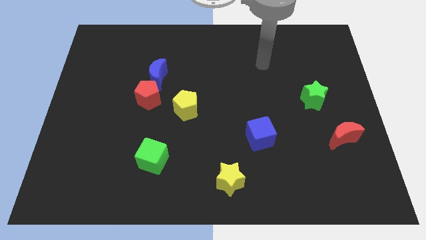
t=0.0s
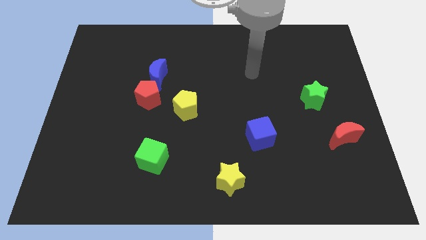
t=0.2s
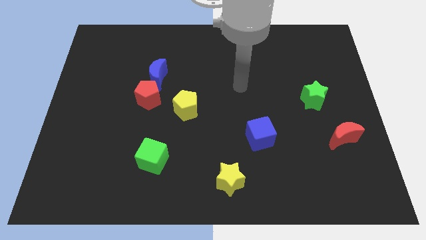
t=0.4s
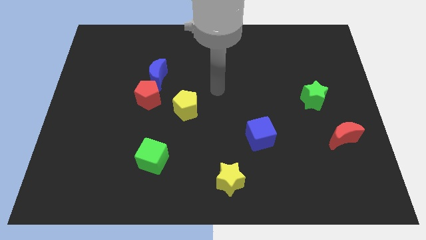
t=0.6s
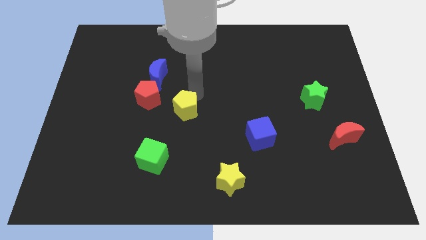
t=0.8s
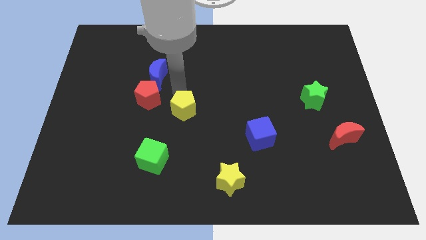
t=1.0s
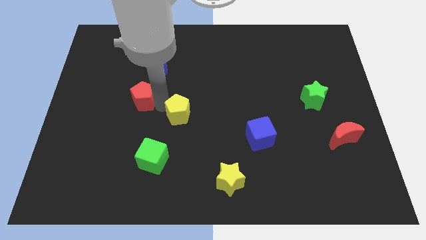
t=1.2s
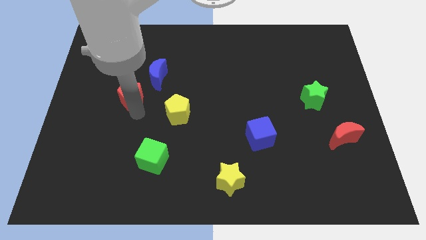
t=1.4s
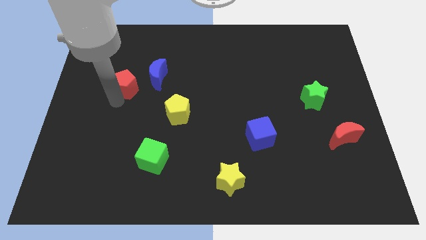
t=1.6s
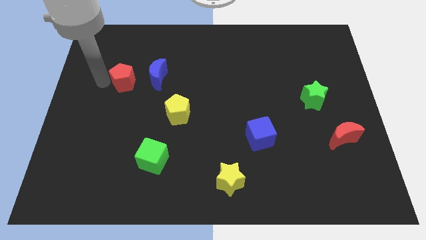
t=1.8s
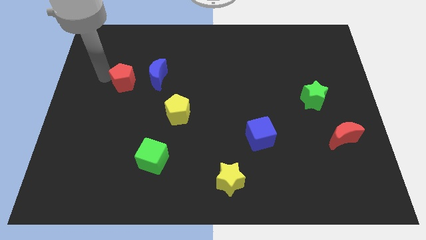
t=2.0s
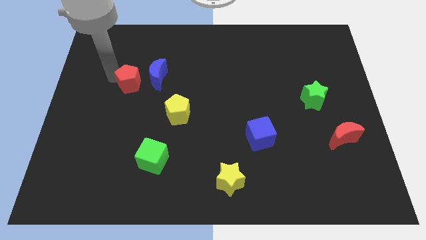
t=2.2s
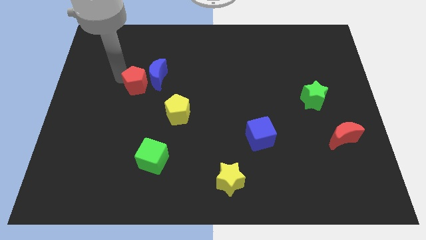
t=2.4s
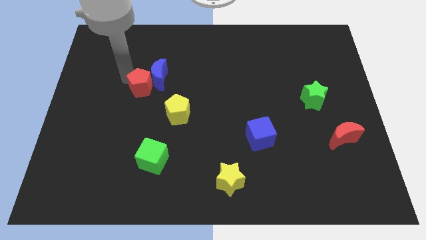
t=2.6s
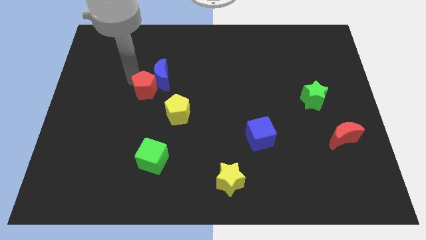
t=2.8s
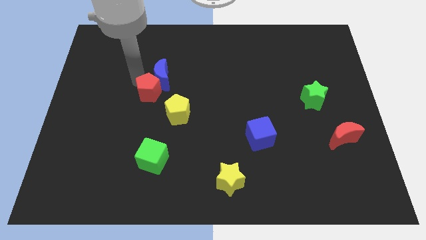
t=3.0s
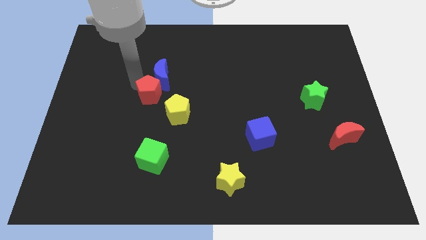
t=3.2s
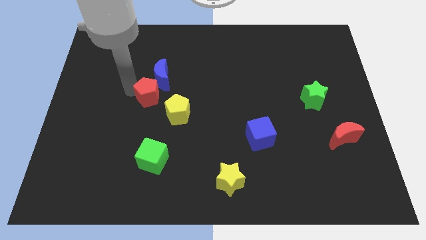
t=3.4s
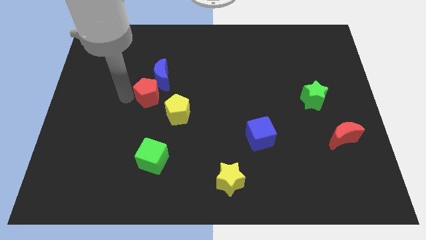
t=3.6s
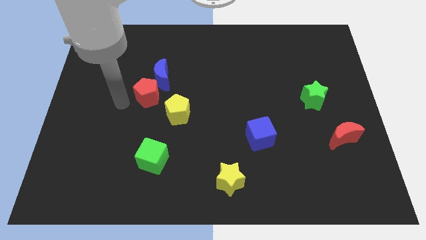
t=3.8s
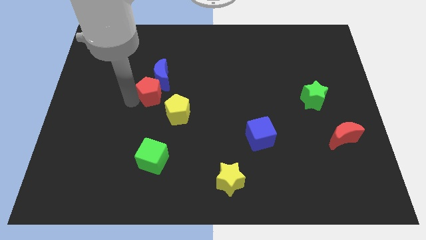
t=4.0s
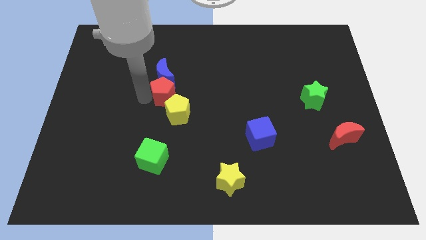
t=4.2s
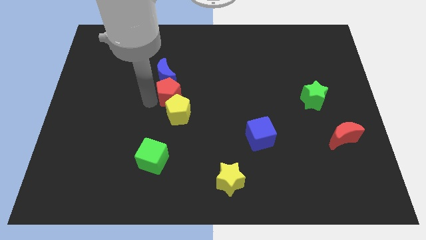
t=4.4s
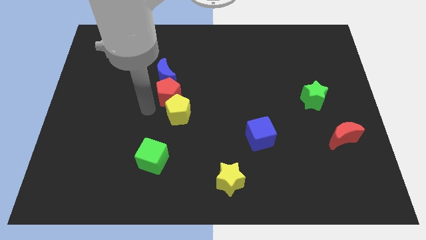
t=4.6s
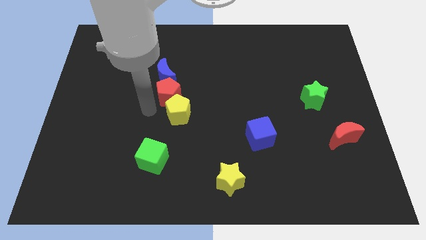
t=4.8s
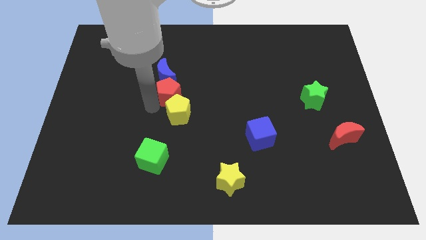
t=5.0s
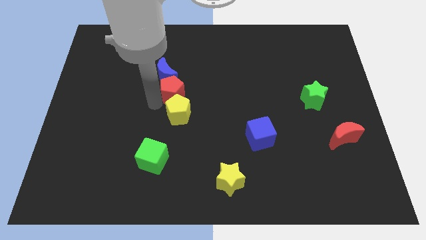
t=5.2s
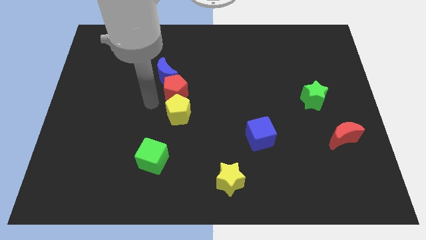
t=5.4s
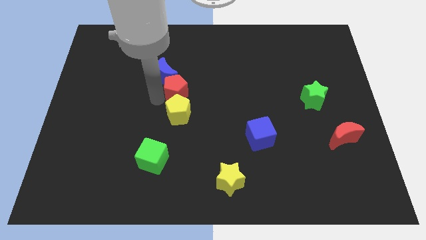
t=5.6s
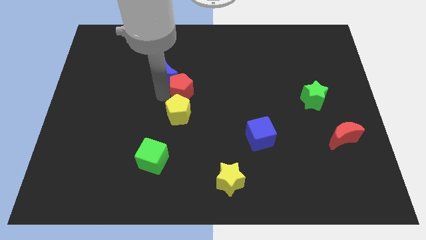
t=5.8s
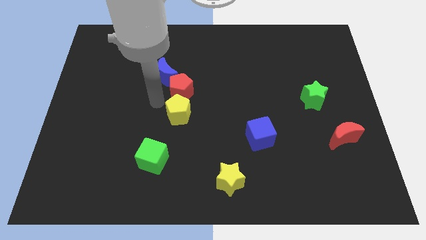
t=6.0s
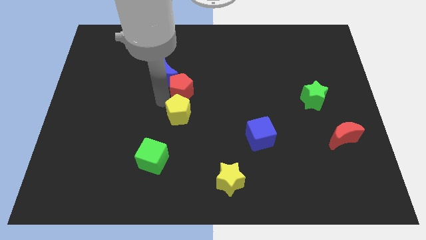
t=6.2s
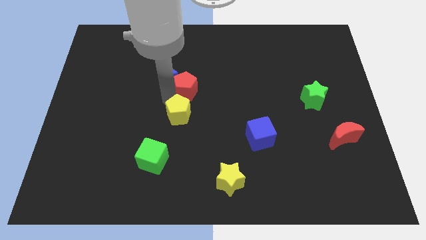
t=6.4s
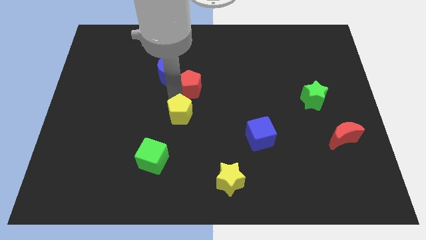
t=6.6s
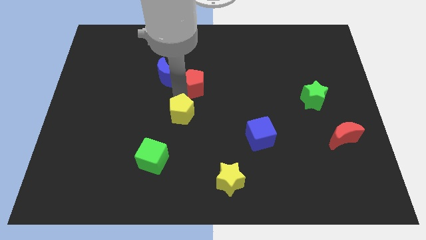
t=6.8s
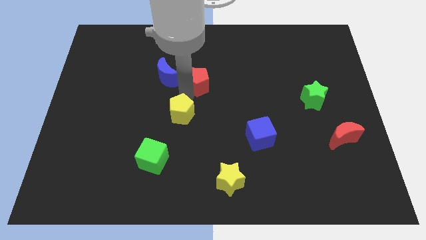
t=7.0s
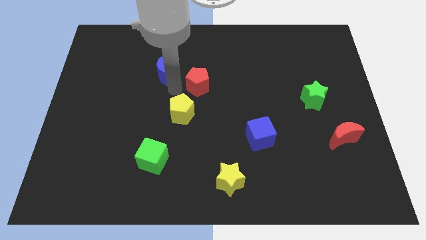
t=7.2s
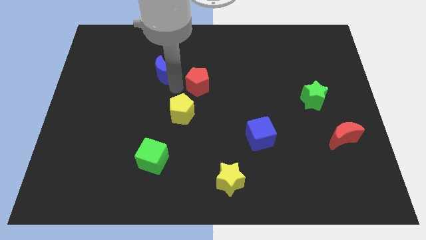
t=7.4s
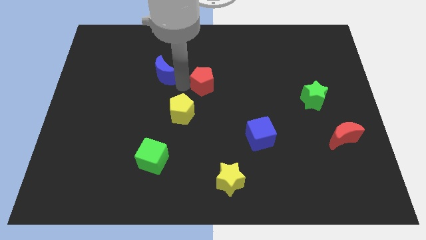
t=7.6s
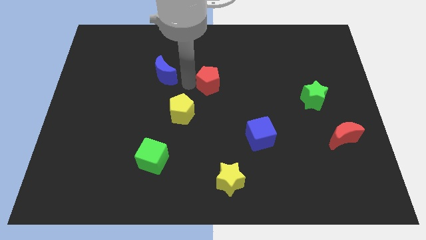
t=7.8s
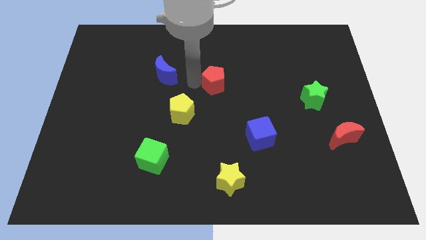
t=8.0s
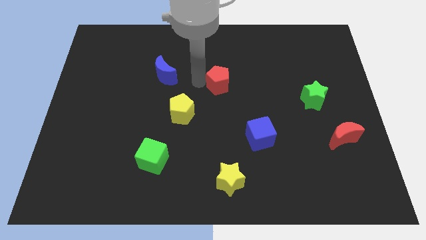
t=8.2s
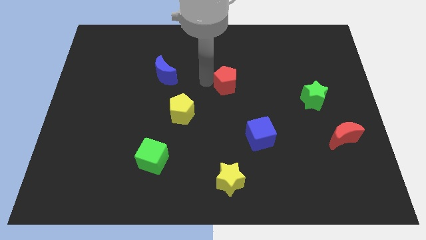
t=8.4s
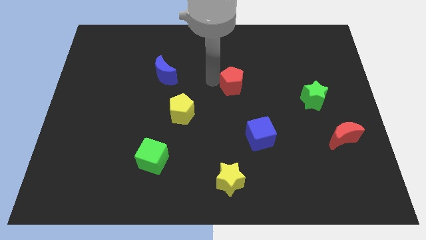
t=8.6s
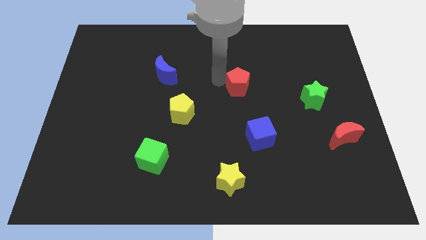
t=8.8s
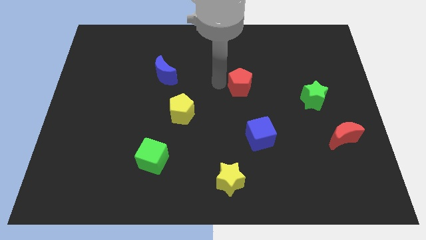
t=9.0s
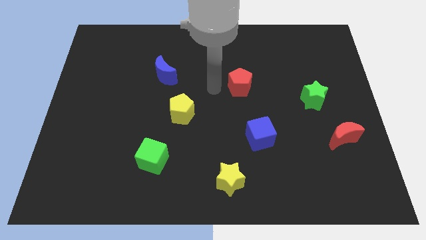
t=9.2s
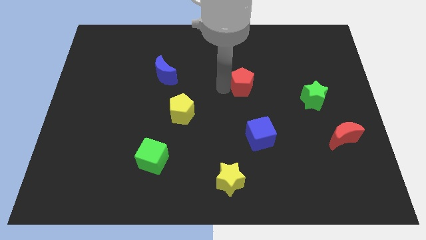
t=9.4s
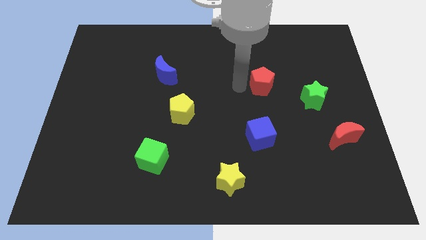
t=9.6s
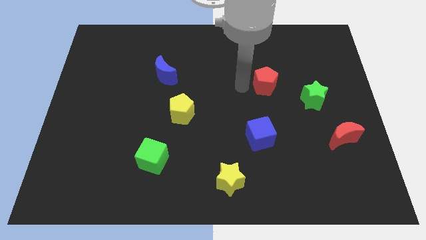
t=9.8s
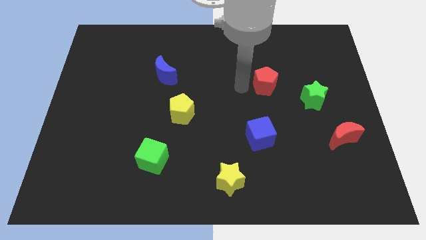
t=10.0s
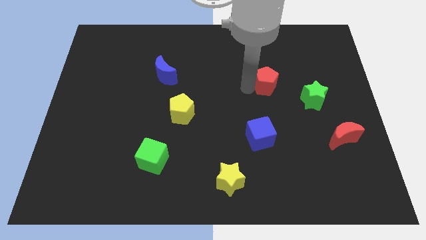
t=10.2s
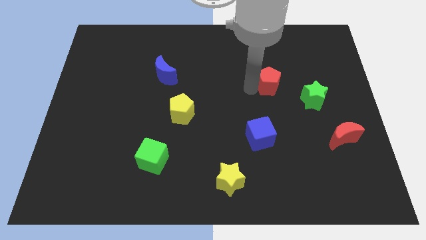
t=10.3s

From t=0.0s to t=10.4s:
move the red pentagon to the top left side of the green star

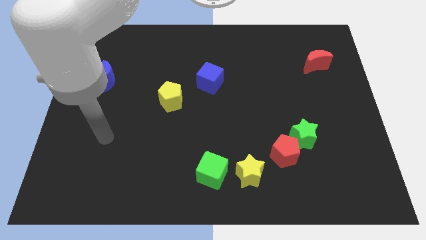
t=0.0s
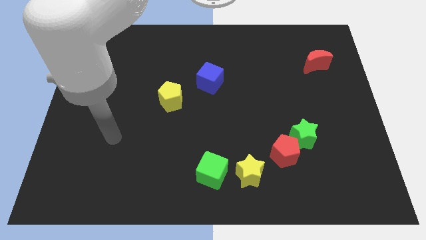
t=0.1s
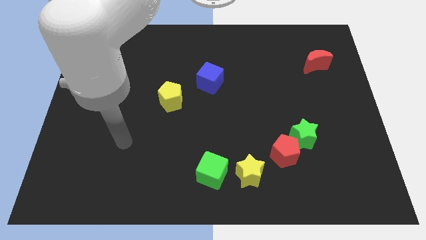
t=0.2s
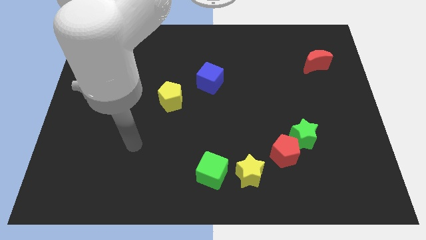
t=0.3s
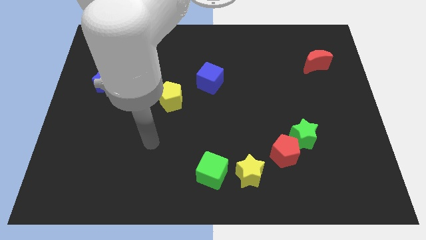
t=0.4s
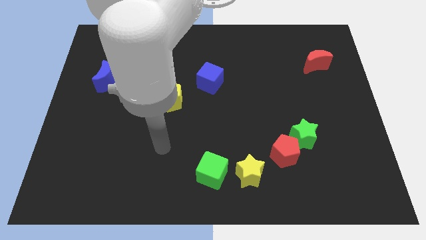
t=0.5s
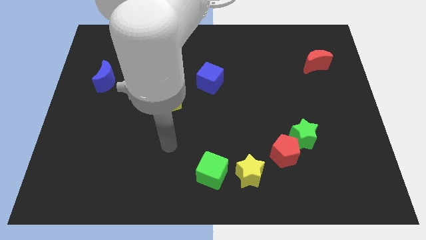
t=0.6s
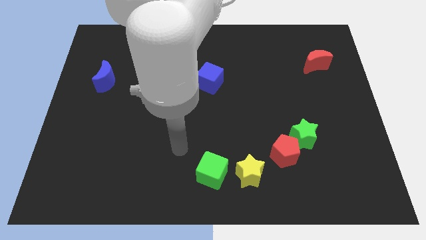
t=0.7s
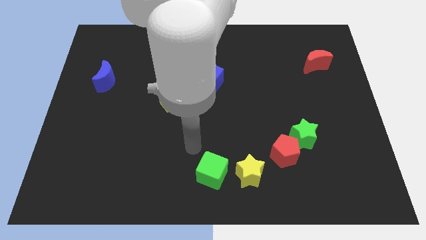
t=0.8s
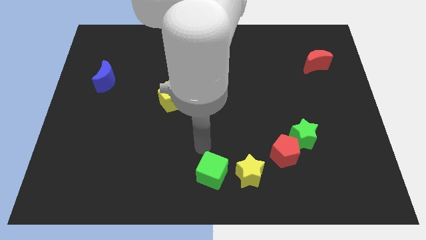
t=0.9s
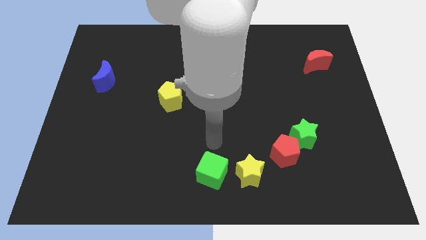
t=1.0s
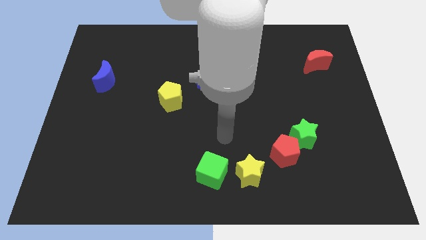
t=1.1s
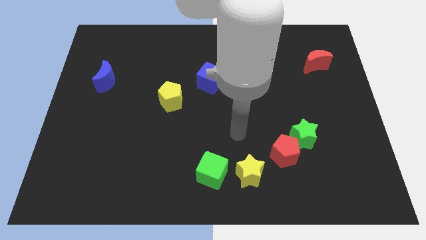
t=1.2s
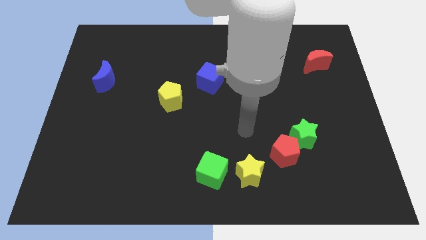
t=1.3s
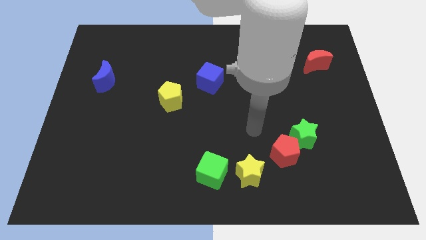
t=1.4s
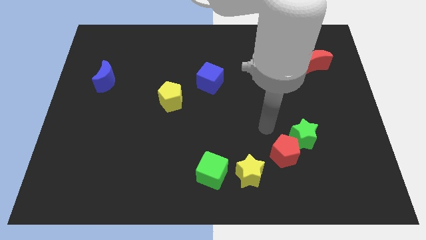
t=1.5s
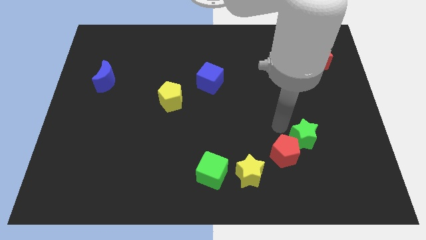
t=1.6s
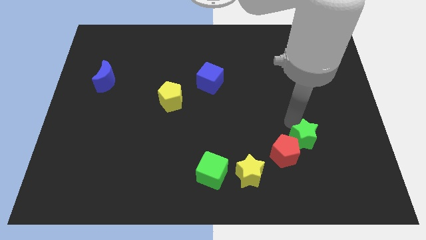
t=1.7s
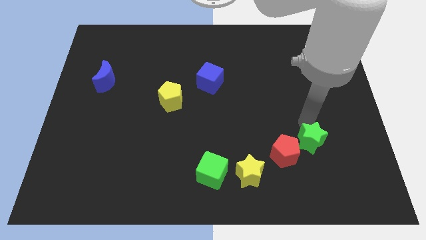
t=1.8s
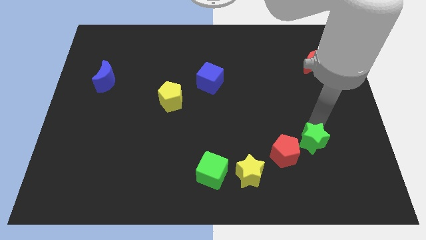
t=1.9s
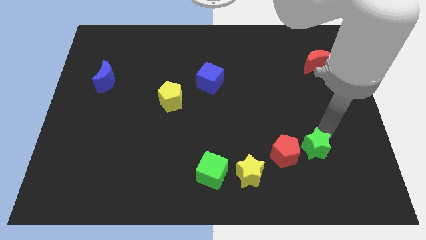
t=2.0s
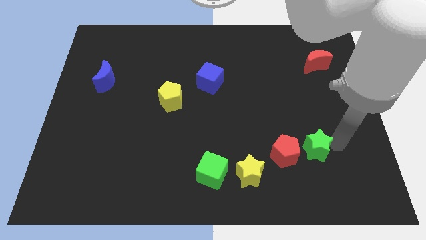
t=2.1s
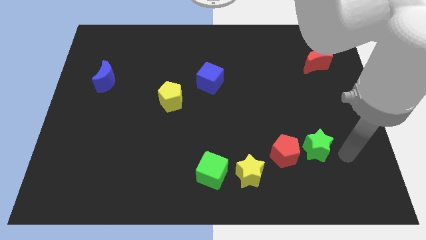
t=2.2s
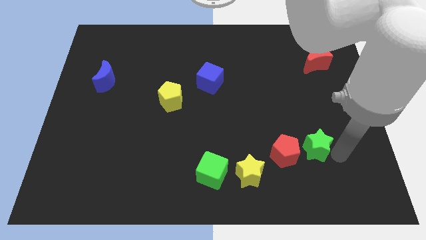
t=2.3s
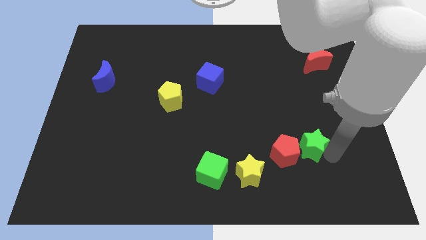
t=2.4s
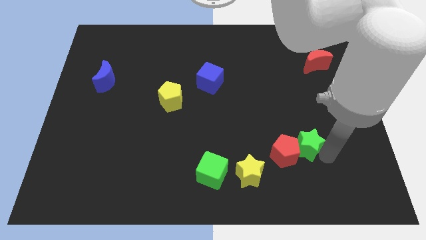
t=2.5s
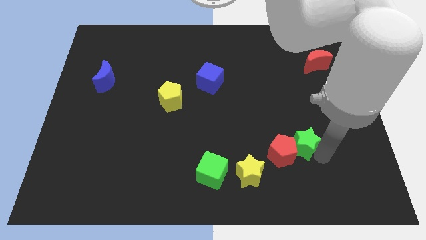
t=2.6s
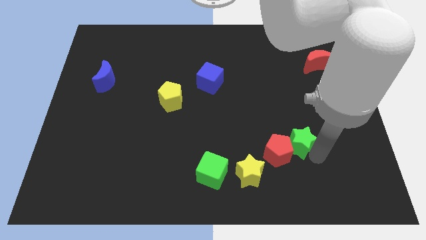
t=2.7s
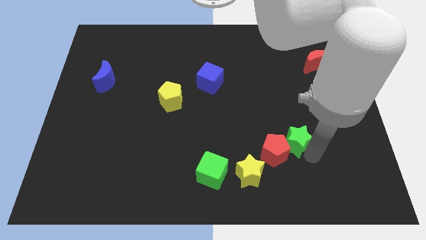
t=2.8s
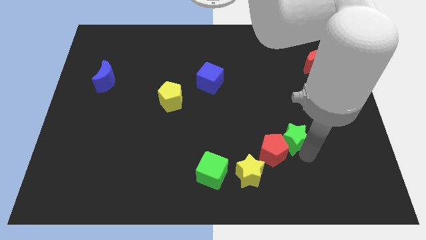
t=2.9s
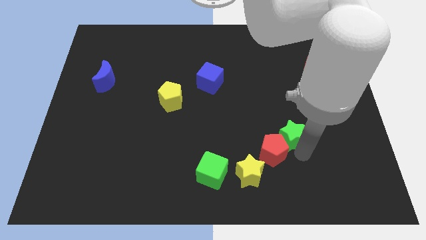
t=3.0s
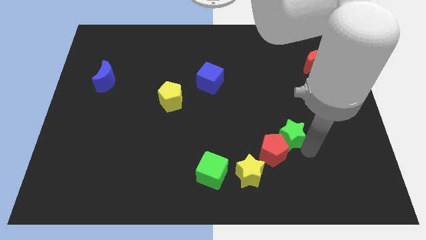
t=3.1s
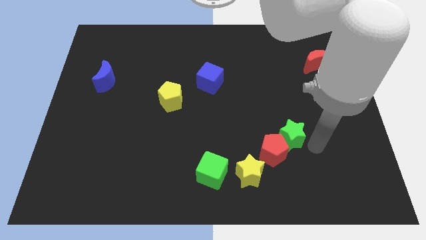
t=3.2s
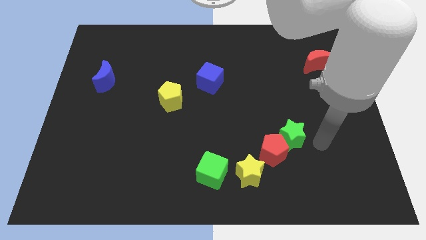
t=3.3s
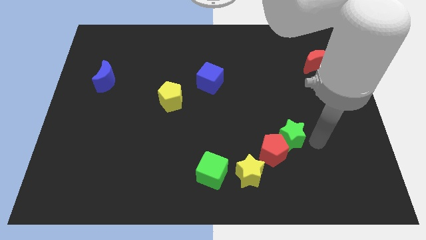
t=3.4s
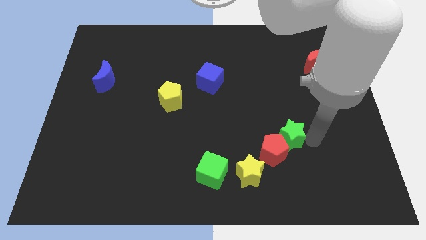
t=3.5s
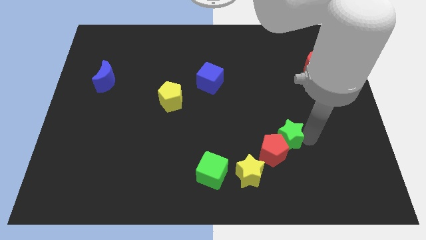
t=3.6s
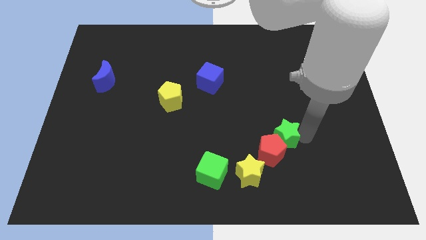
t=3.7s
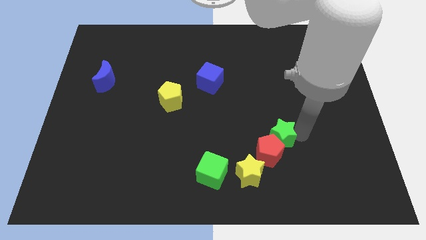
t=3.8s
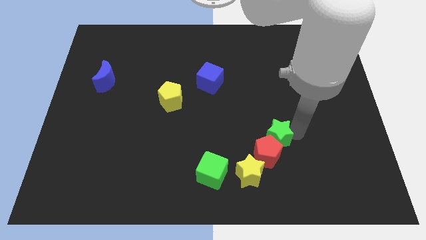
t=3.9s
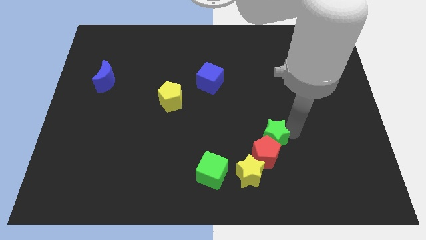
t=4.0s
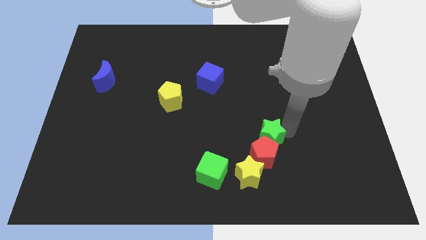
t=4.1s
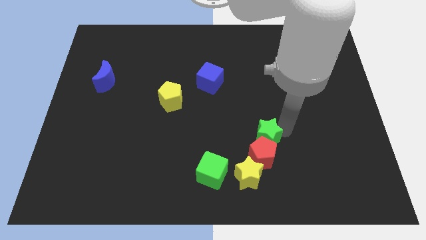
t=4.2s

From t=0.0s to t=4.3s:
push the green star to the top left side of the red pentagon
